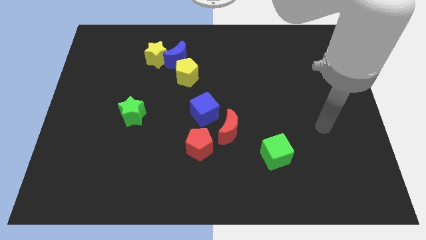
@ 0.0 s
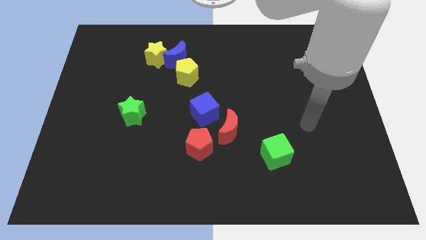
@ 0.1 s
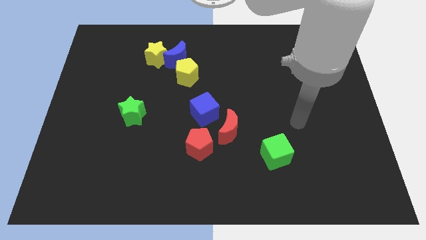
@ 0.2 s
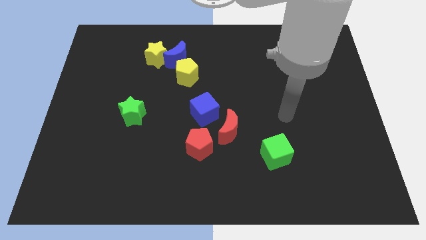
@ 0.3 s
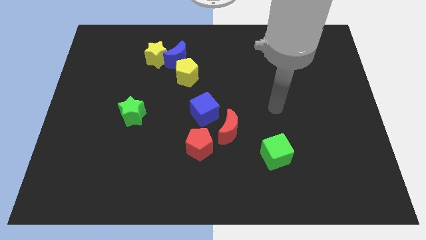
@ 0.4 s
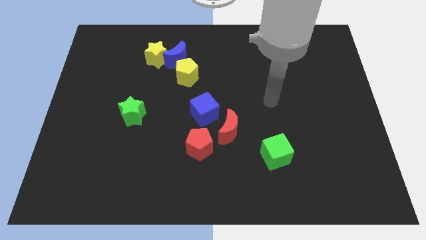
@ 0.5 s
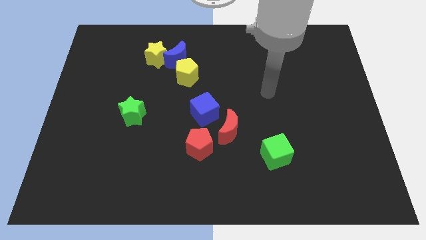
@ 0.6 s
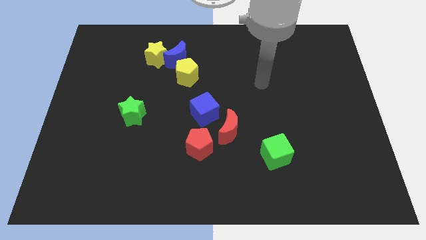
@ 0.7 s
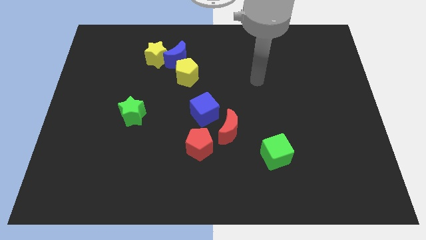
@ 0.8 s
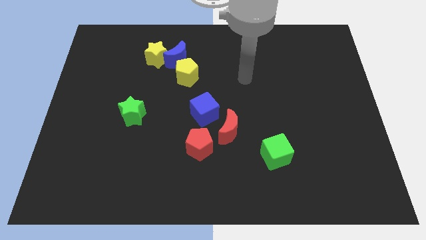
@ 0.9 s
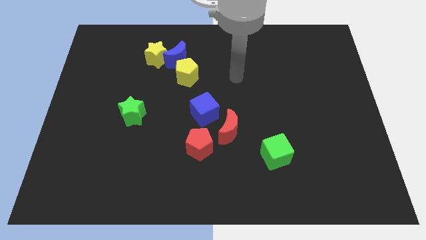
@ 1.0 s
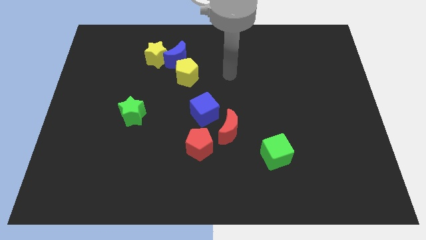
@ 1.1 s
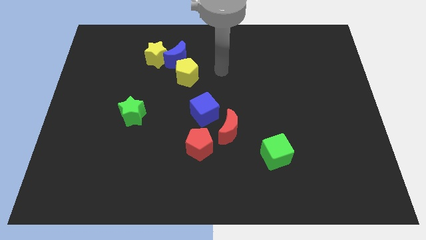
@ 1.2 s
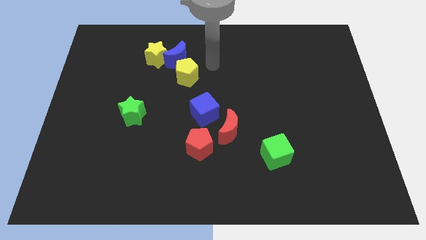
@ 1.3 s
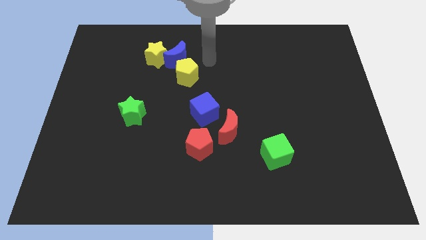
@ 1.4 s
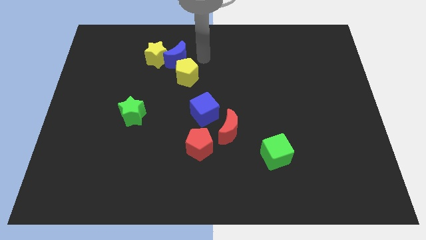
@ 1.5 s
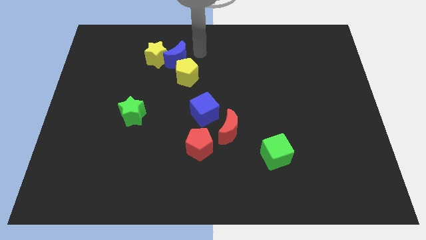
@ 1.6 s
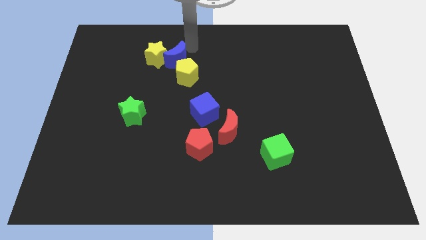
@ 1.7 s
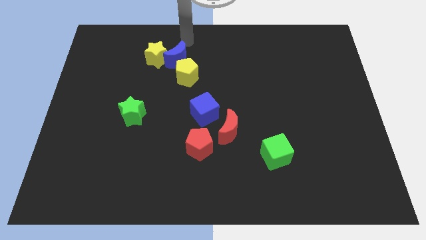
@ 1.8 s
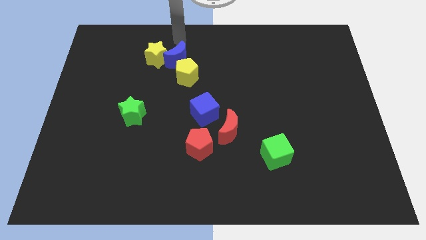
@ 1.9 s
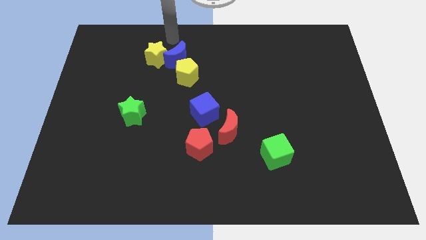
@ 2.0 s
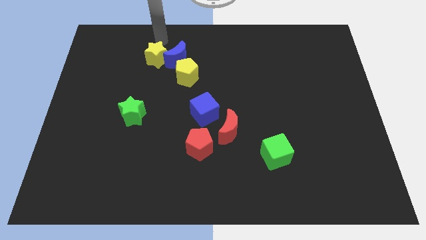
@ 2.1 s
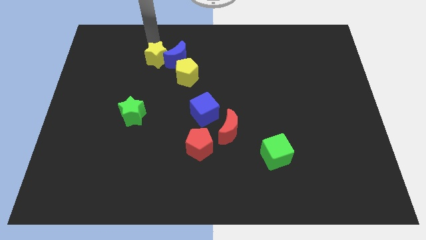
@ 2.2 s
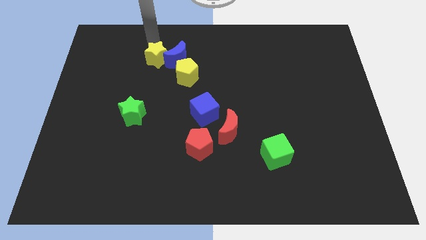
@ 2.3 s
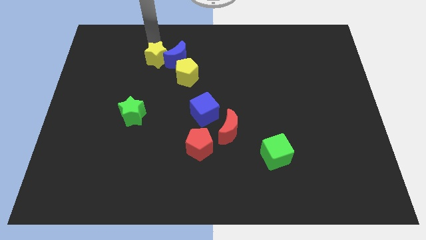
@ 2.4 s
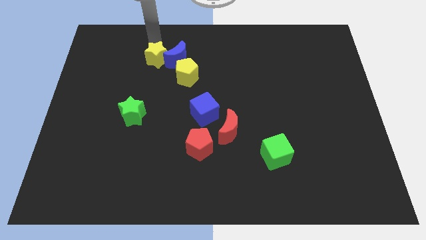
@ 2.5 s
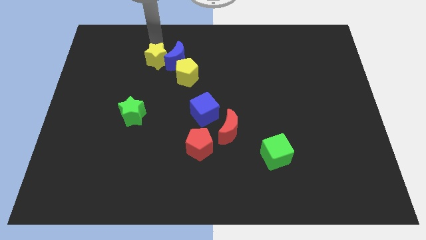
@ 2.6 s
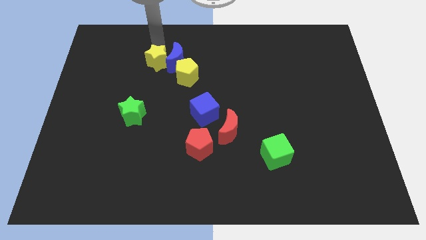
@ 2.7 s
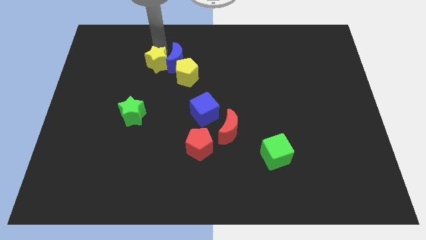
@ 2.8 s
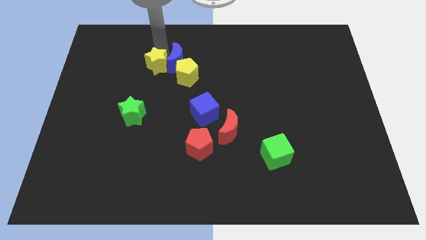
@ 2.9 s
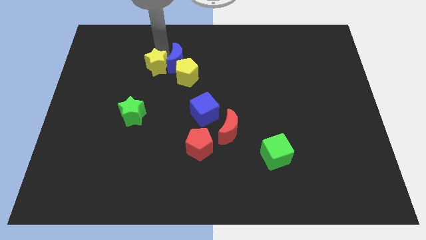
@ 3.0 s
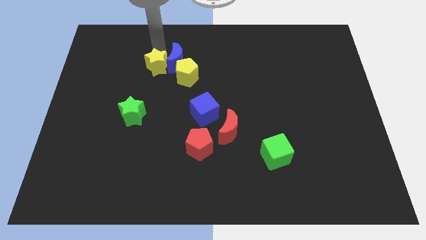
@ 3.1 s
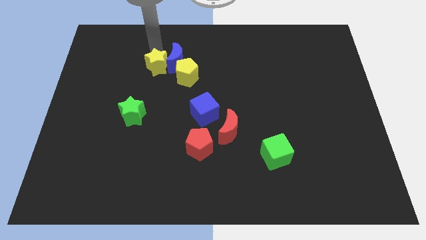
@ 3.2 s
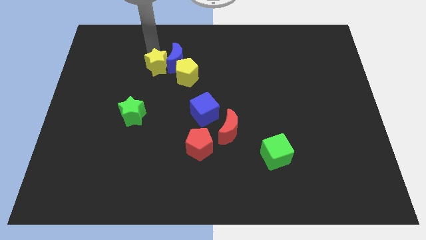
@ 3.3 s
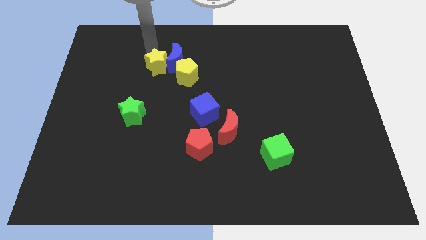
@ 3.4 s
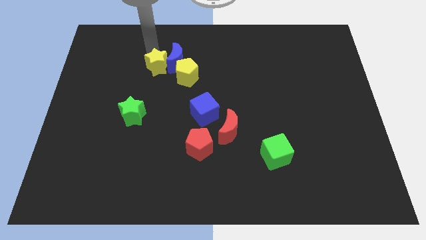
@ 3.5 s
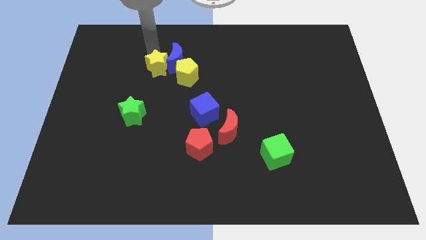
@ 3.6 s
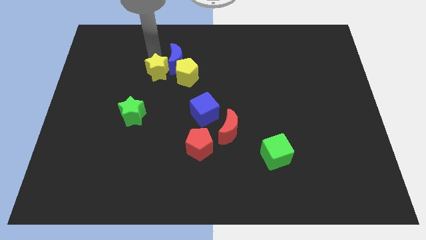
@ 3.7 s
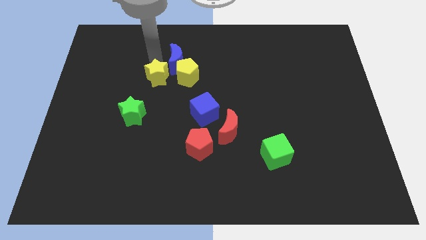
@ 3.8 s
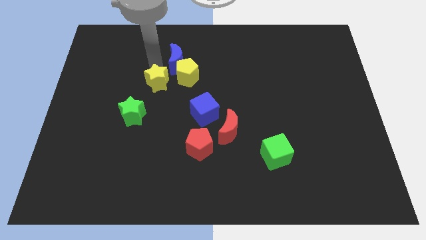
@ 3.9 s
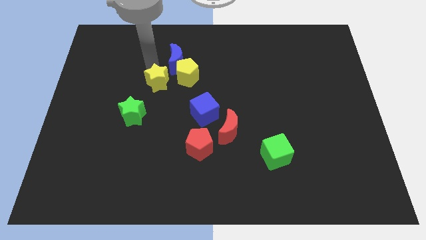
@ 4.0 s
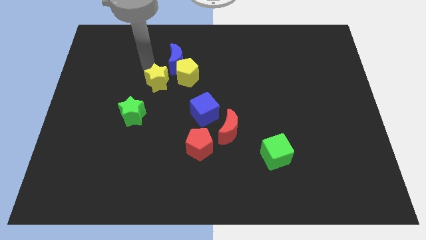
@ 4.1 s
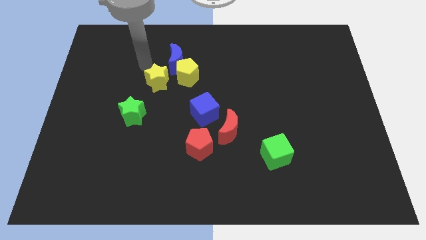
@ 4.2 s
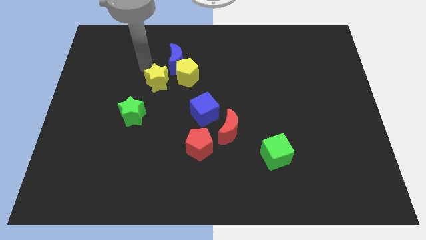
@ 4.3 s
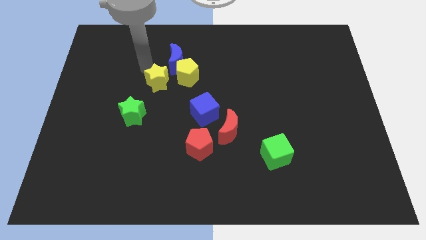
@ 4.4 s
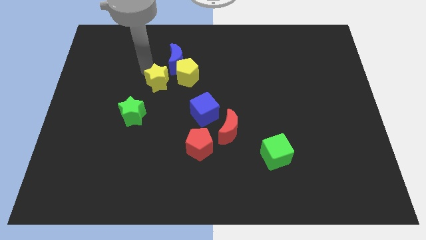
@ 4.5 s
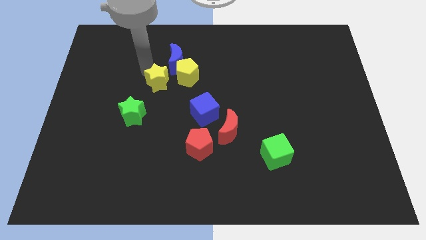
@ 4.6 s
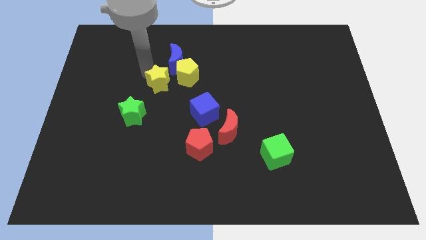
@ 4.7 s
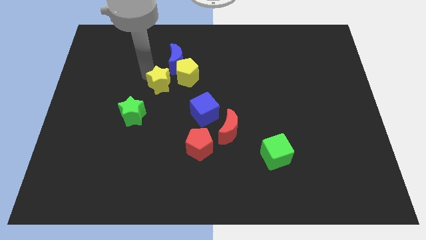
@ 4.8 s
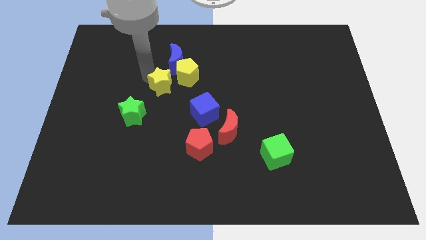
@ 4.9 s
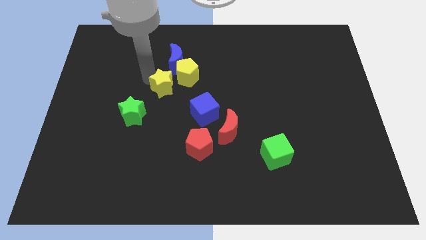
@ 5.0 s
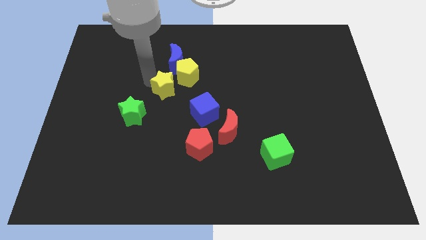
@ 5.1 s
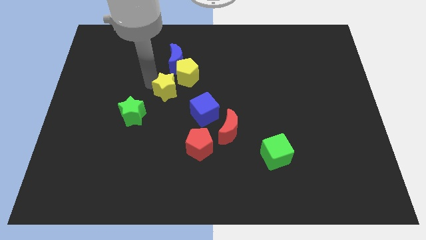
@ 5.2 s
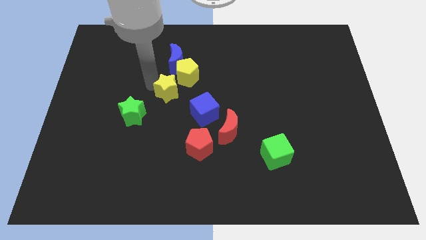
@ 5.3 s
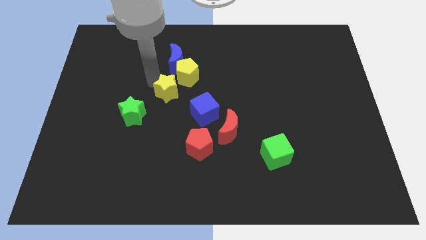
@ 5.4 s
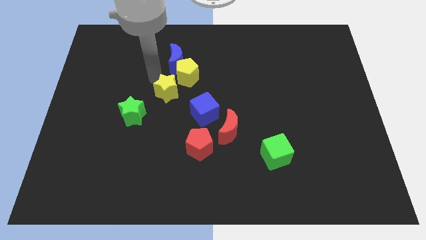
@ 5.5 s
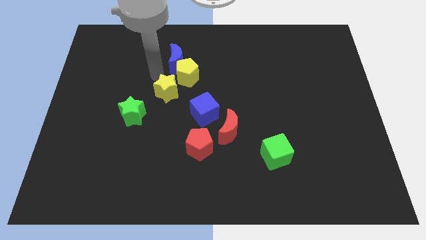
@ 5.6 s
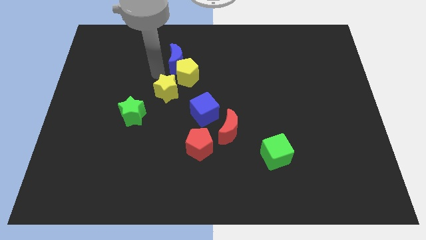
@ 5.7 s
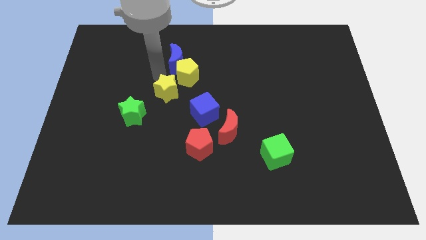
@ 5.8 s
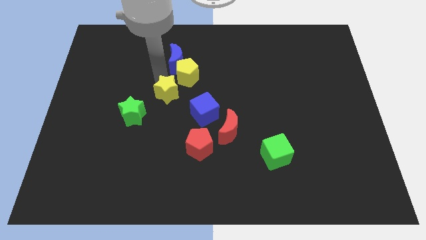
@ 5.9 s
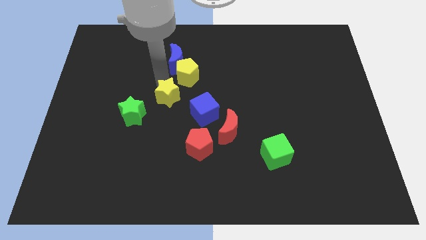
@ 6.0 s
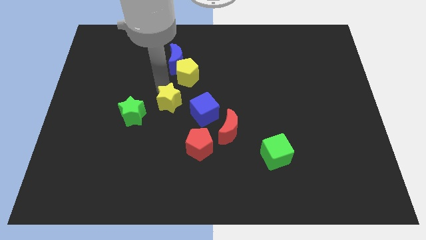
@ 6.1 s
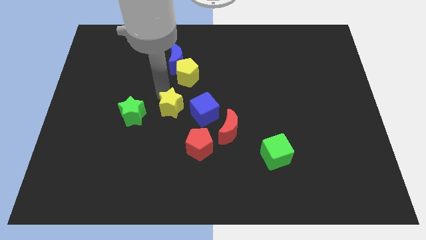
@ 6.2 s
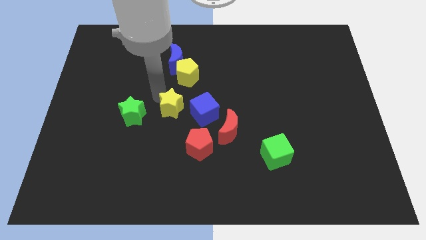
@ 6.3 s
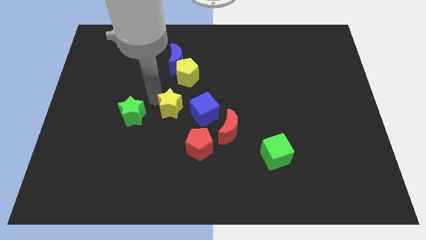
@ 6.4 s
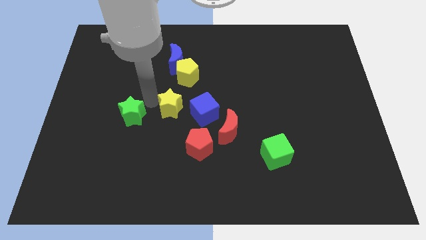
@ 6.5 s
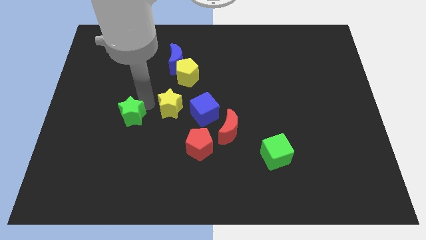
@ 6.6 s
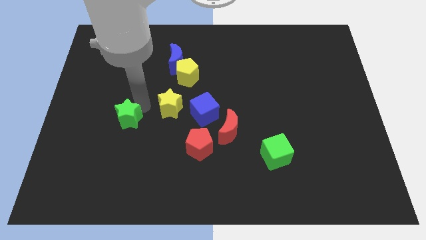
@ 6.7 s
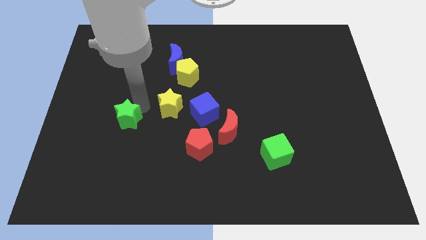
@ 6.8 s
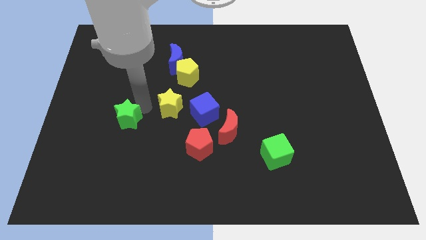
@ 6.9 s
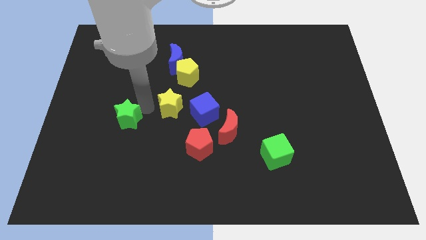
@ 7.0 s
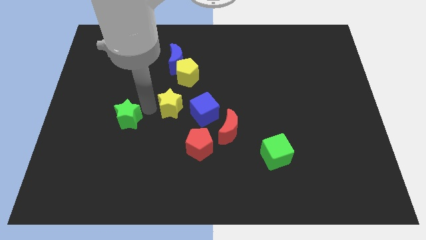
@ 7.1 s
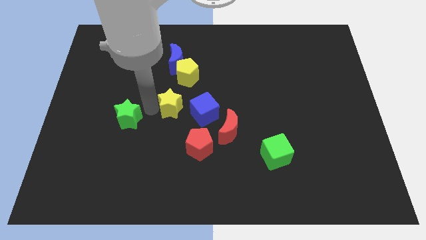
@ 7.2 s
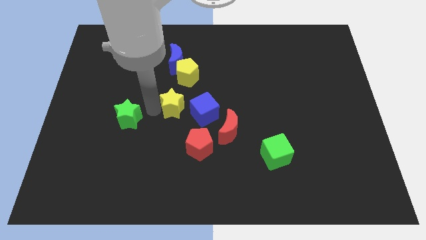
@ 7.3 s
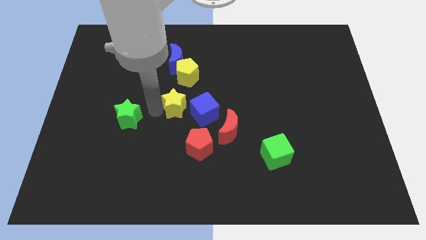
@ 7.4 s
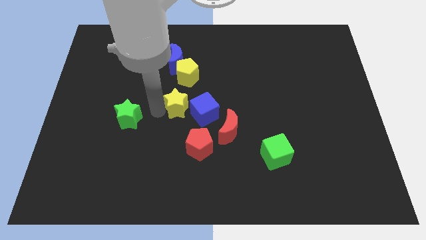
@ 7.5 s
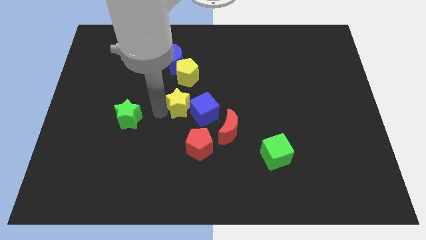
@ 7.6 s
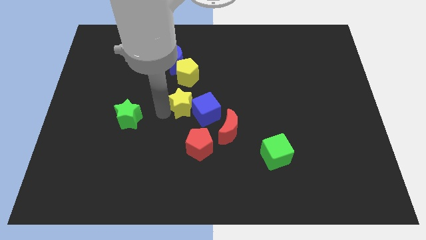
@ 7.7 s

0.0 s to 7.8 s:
move the yellow star close to the blue cube
